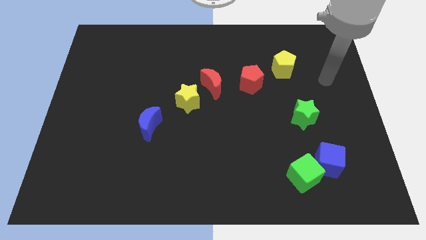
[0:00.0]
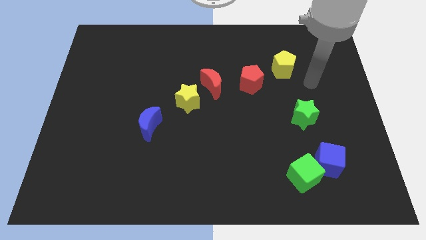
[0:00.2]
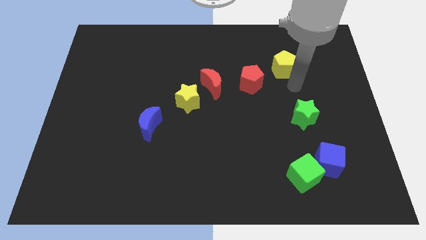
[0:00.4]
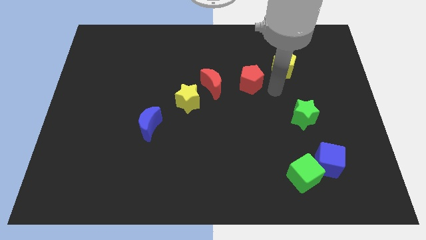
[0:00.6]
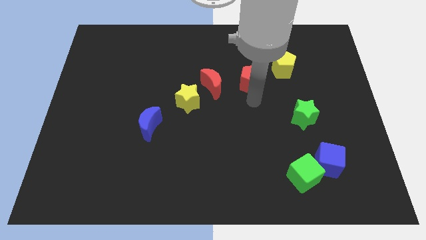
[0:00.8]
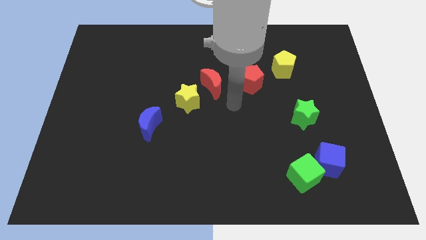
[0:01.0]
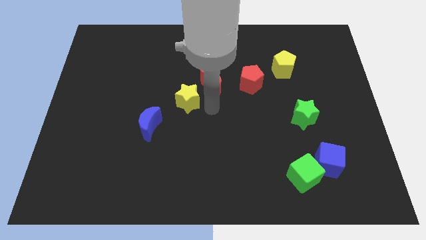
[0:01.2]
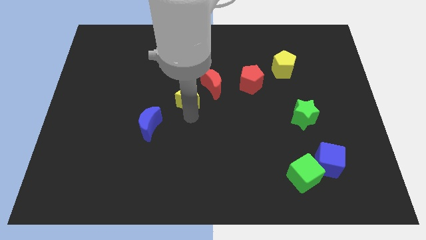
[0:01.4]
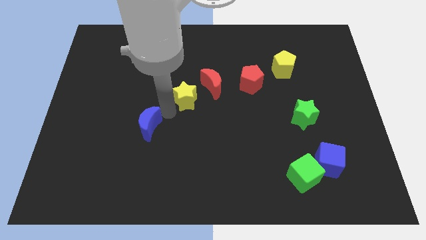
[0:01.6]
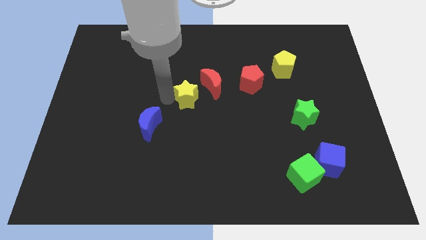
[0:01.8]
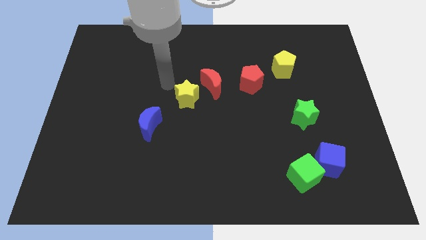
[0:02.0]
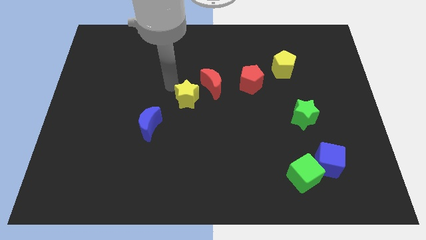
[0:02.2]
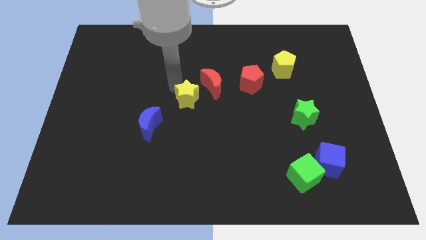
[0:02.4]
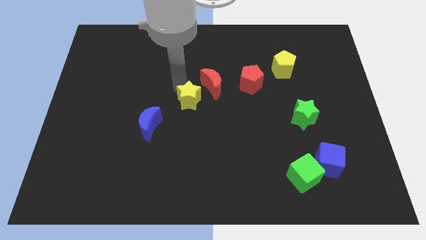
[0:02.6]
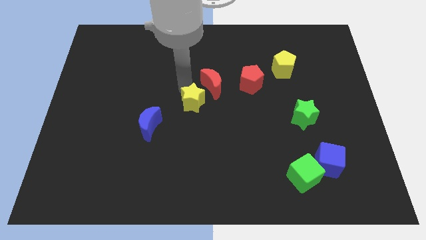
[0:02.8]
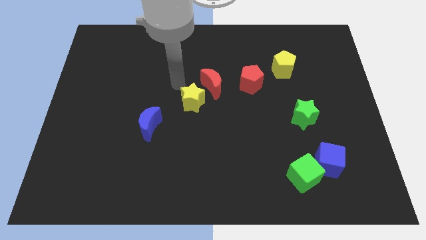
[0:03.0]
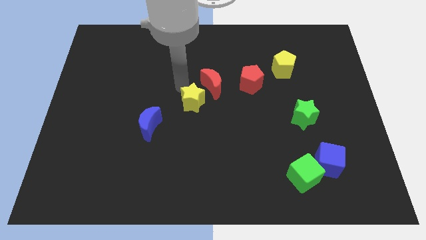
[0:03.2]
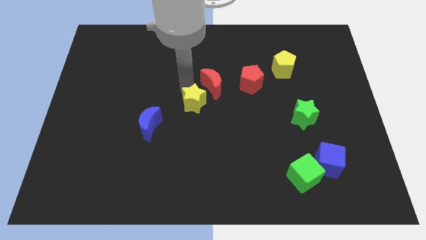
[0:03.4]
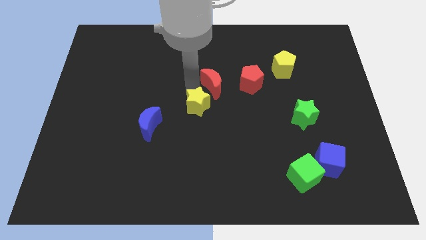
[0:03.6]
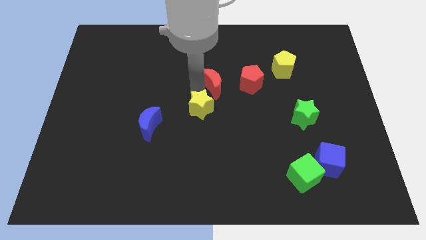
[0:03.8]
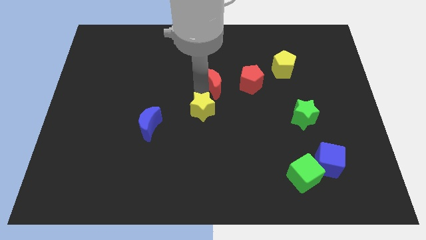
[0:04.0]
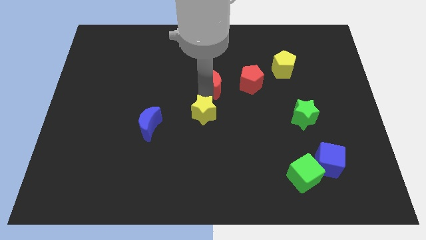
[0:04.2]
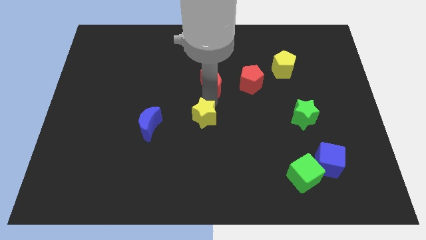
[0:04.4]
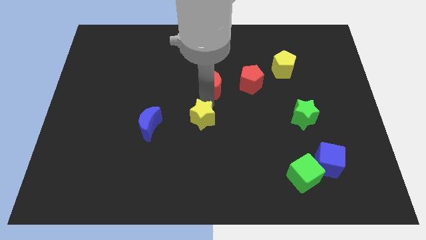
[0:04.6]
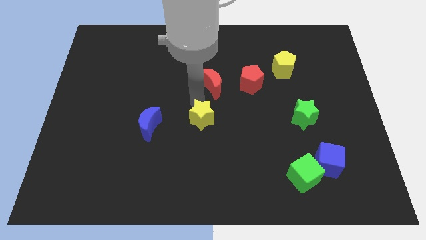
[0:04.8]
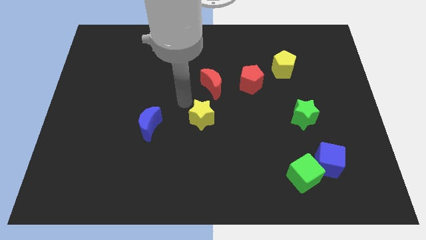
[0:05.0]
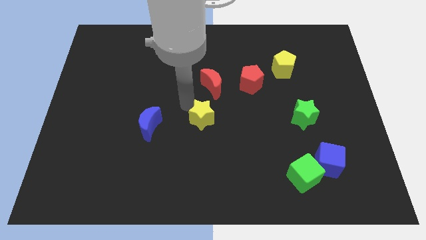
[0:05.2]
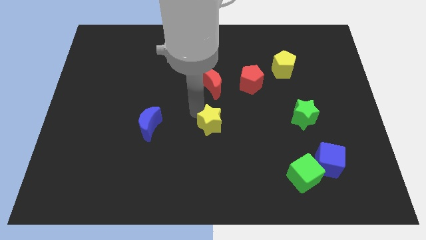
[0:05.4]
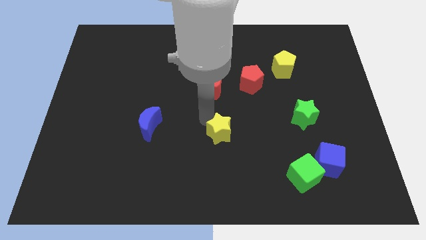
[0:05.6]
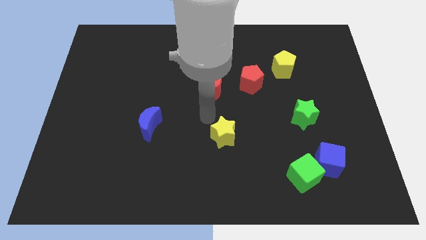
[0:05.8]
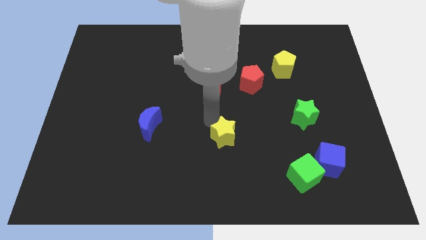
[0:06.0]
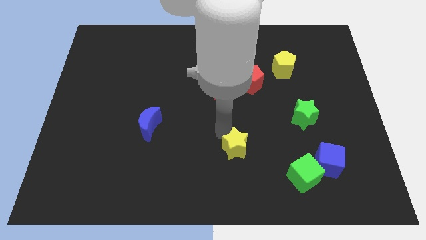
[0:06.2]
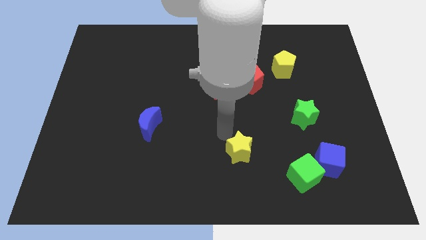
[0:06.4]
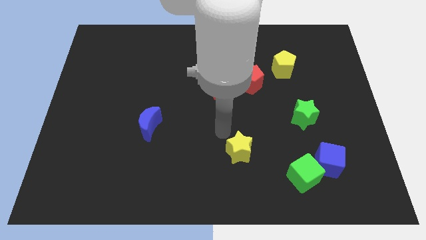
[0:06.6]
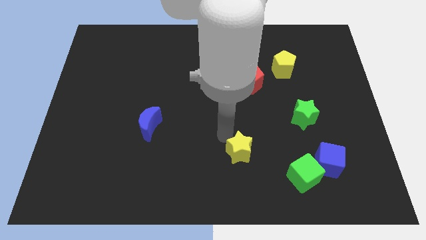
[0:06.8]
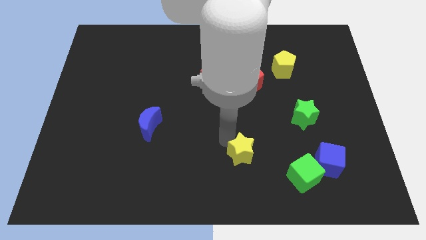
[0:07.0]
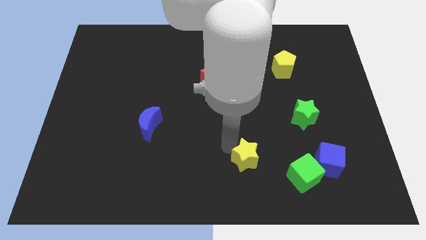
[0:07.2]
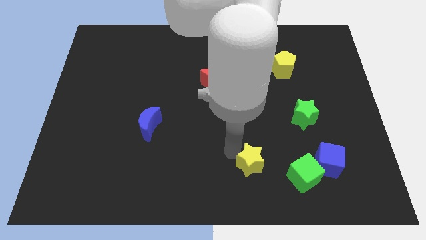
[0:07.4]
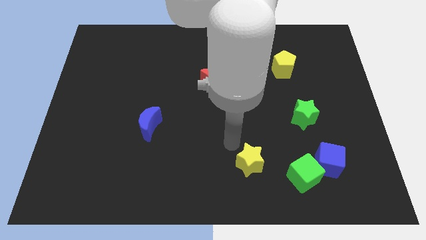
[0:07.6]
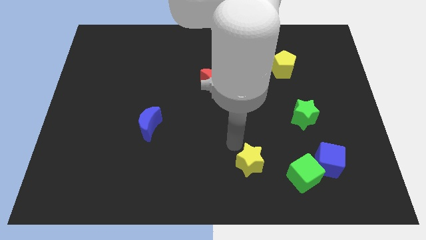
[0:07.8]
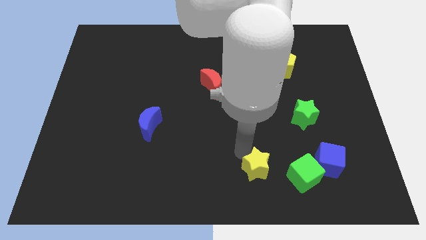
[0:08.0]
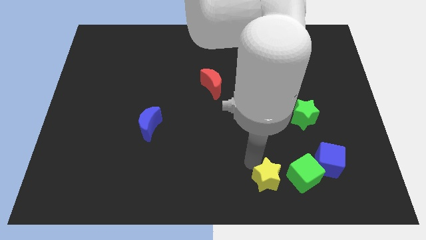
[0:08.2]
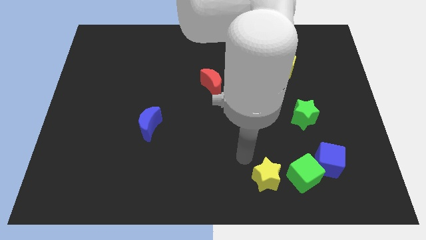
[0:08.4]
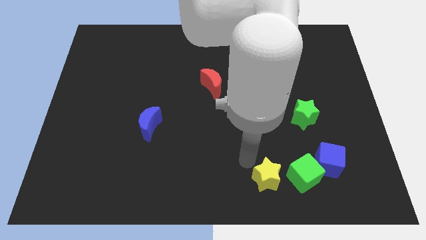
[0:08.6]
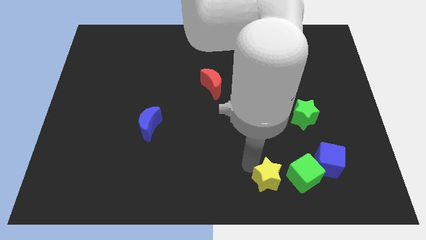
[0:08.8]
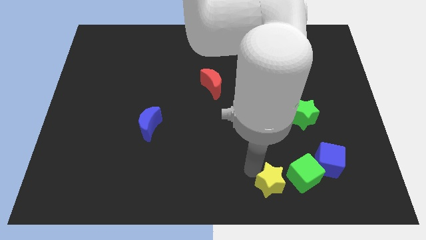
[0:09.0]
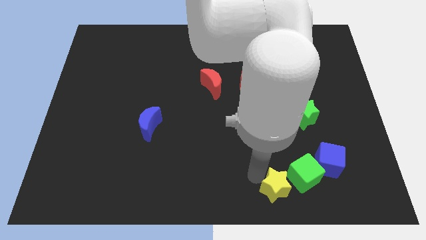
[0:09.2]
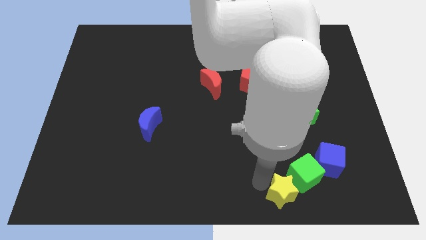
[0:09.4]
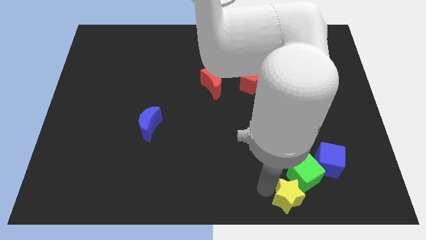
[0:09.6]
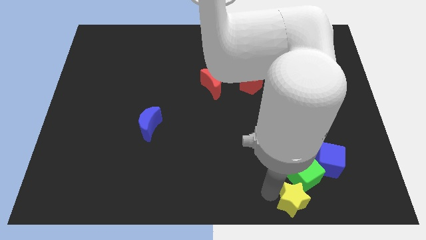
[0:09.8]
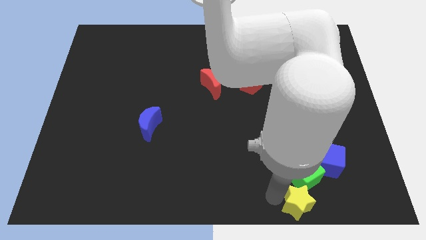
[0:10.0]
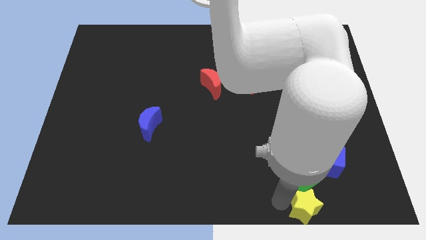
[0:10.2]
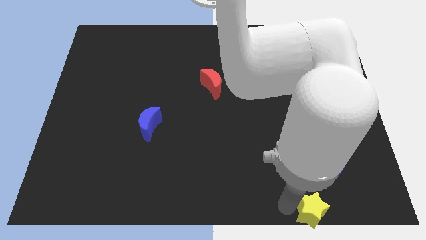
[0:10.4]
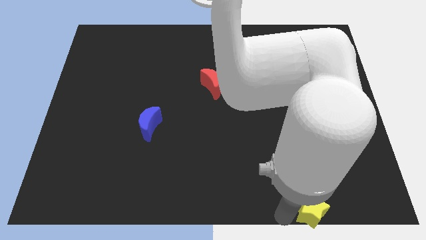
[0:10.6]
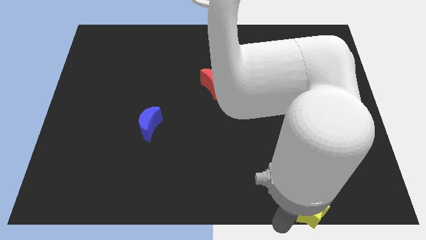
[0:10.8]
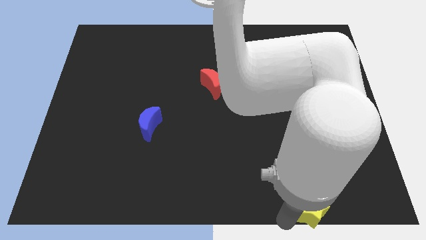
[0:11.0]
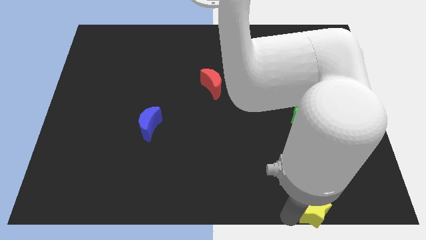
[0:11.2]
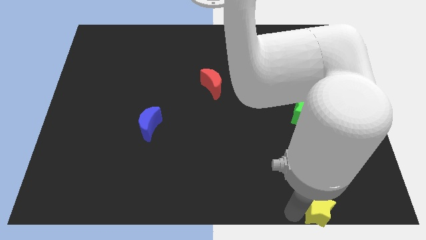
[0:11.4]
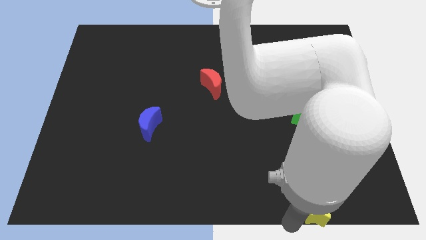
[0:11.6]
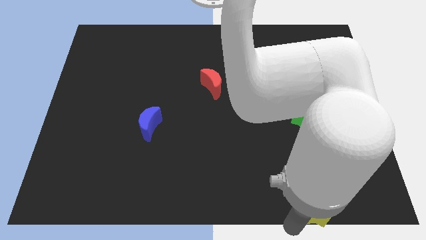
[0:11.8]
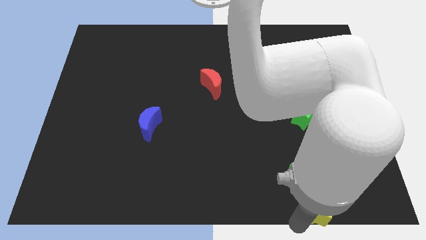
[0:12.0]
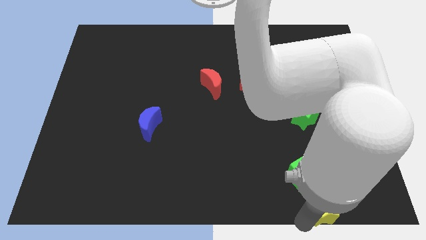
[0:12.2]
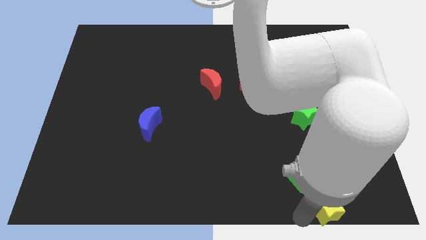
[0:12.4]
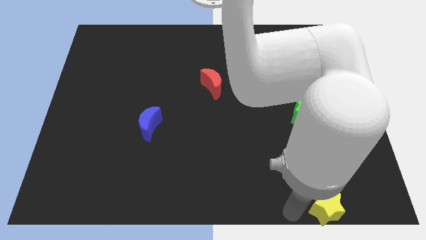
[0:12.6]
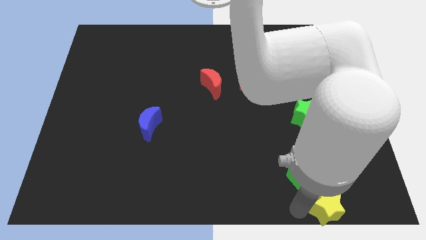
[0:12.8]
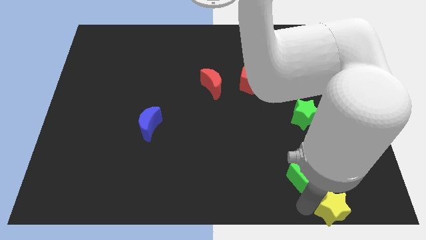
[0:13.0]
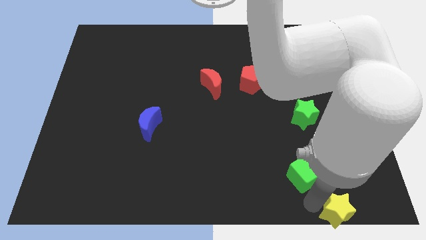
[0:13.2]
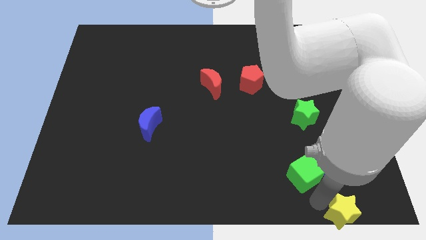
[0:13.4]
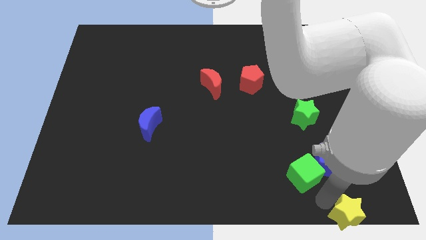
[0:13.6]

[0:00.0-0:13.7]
put the yellow star to the bottom right
